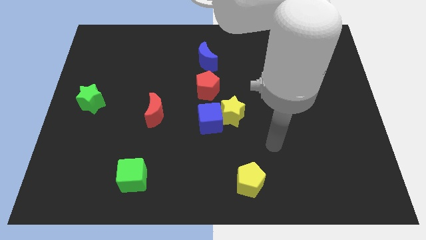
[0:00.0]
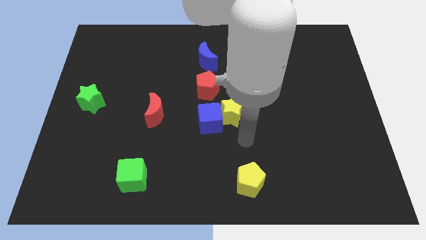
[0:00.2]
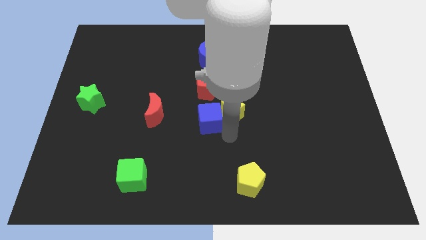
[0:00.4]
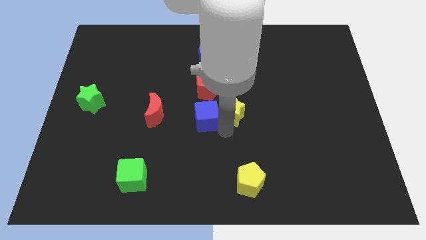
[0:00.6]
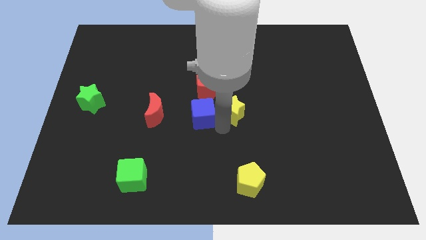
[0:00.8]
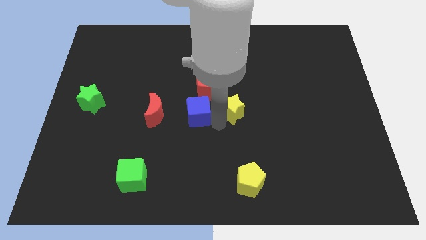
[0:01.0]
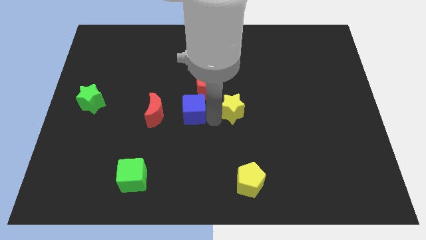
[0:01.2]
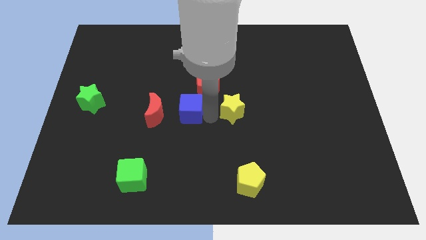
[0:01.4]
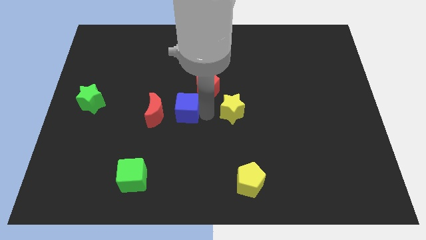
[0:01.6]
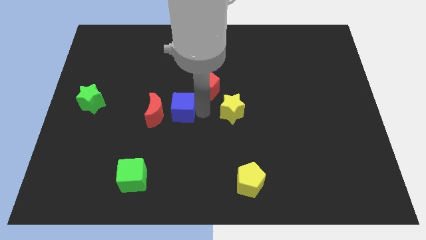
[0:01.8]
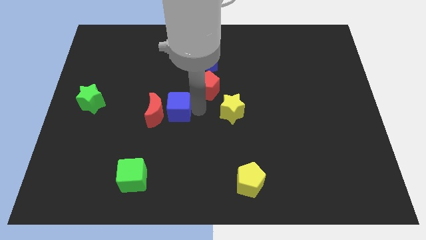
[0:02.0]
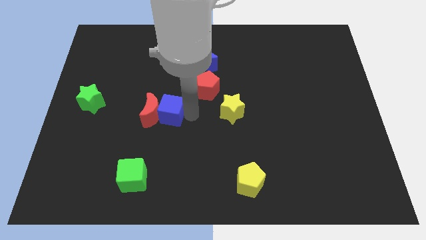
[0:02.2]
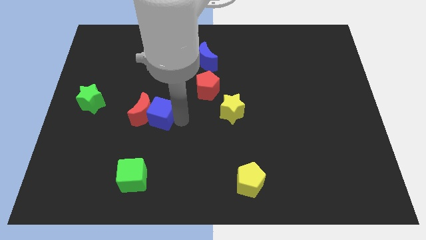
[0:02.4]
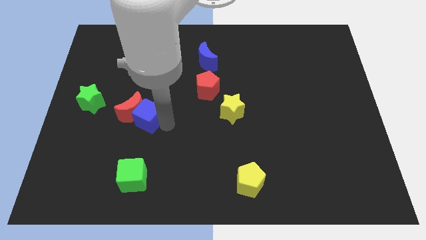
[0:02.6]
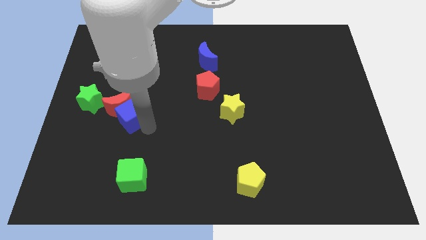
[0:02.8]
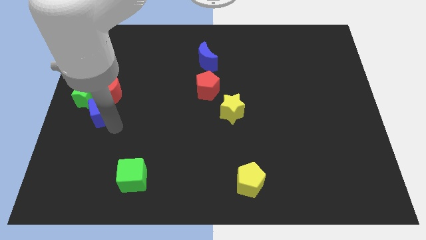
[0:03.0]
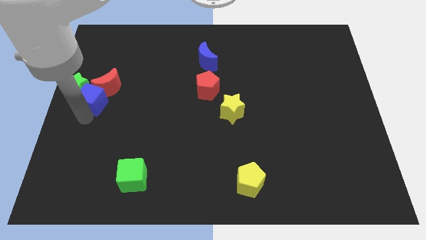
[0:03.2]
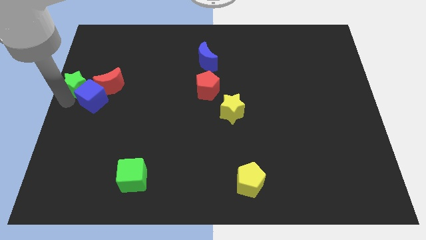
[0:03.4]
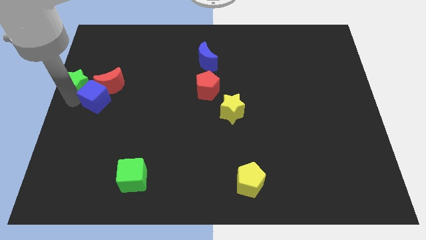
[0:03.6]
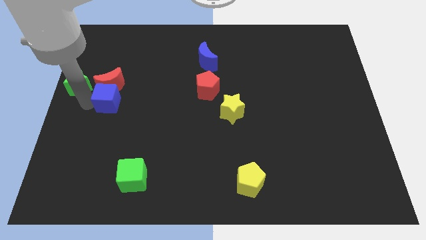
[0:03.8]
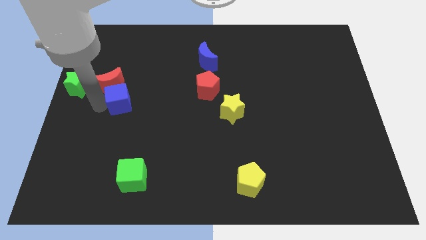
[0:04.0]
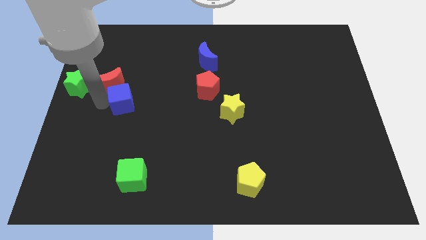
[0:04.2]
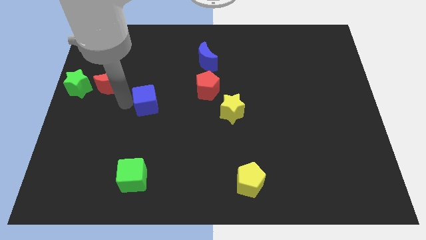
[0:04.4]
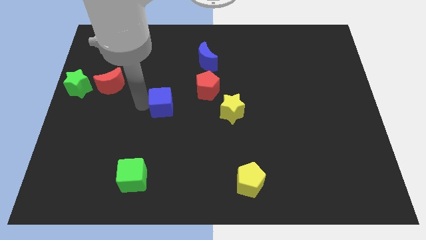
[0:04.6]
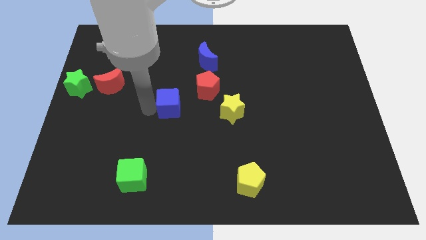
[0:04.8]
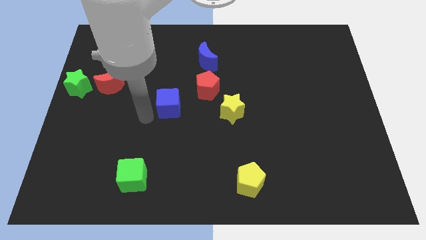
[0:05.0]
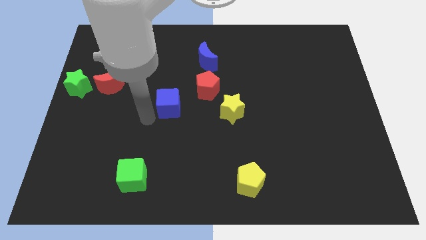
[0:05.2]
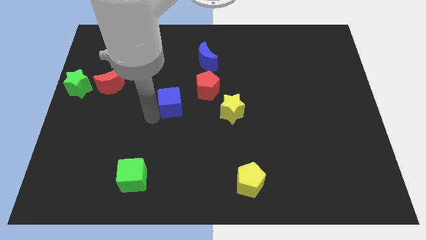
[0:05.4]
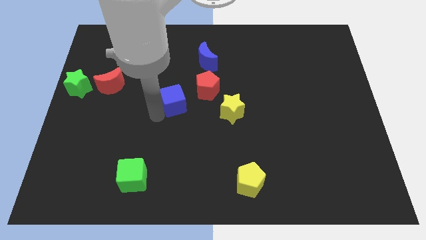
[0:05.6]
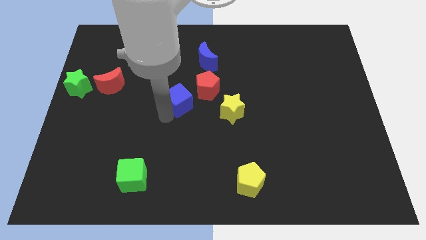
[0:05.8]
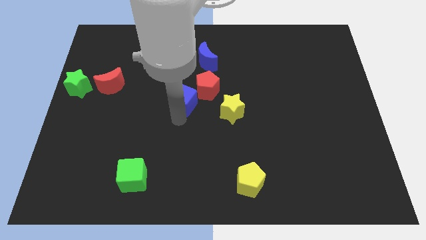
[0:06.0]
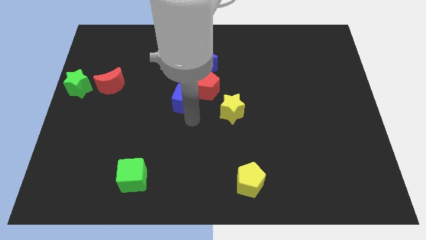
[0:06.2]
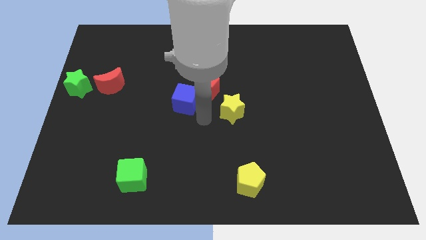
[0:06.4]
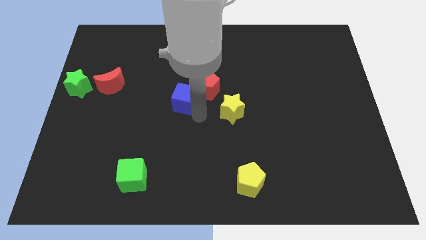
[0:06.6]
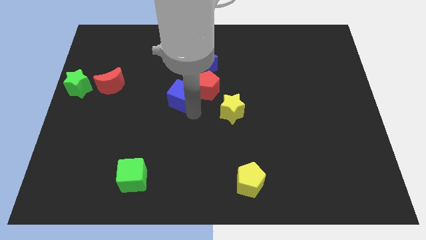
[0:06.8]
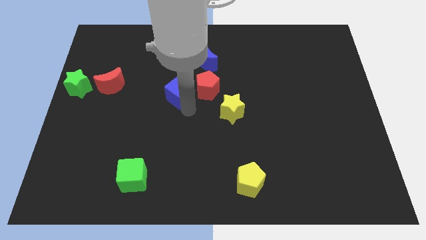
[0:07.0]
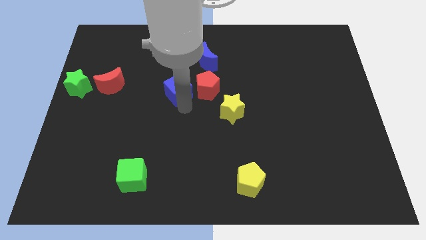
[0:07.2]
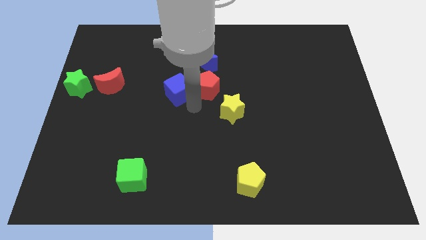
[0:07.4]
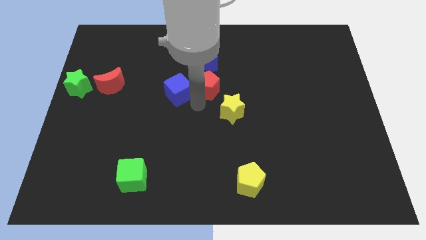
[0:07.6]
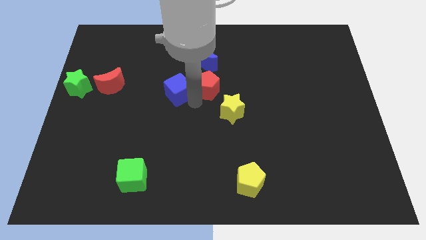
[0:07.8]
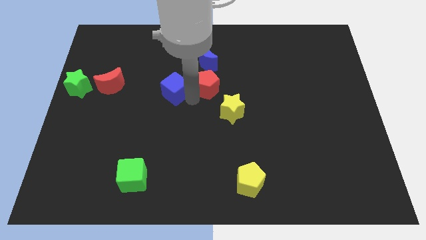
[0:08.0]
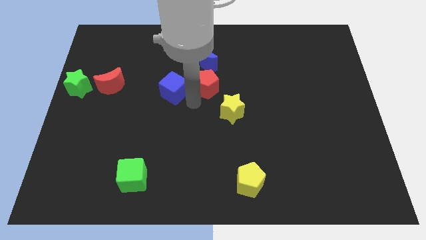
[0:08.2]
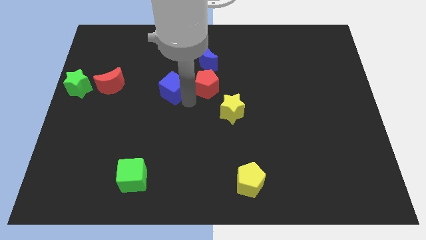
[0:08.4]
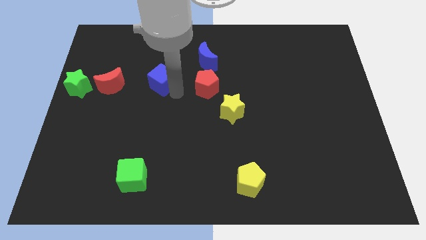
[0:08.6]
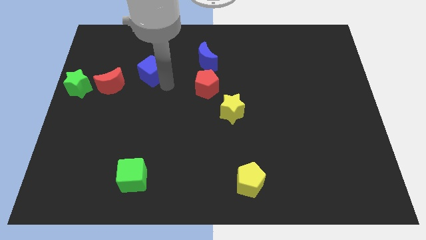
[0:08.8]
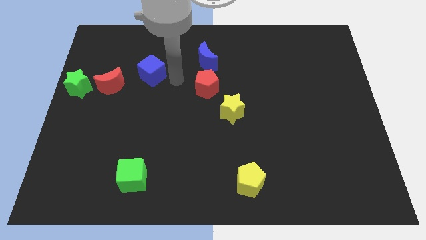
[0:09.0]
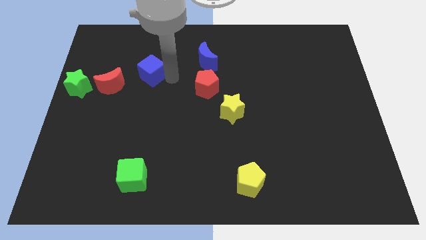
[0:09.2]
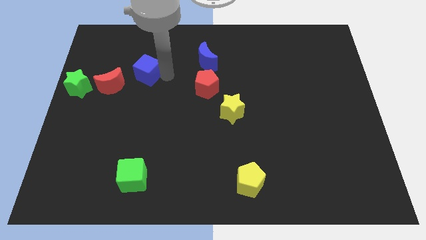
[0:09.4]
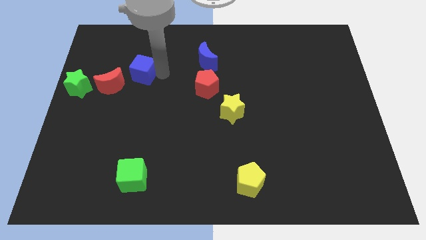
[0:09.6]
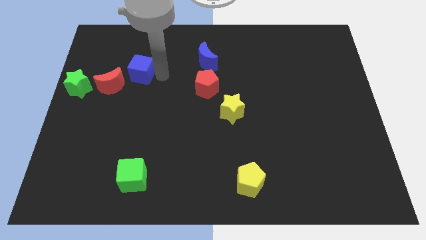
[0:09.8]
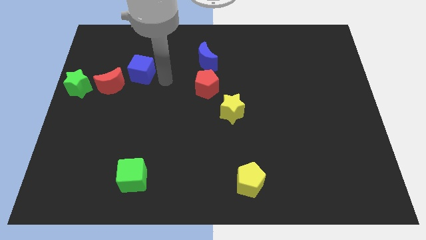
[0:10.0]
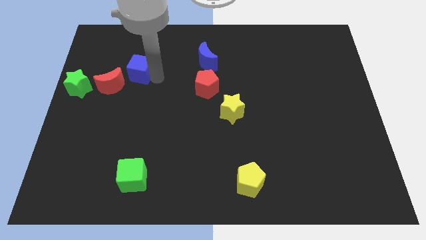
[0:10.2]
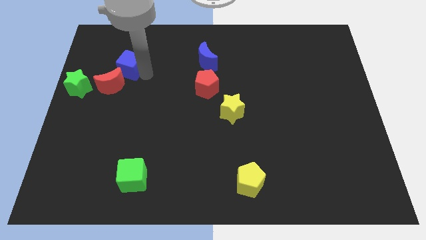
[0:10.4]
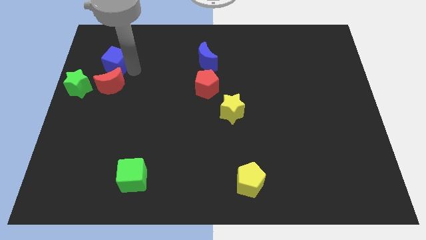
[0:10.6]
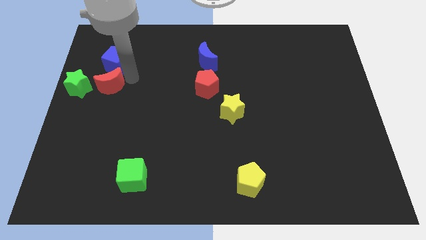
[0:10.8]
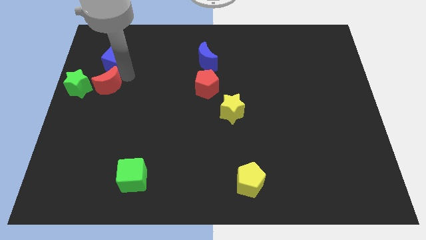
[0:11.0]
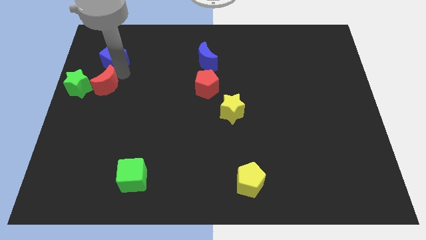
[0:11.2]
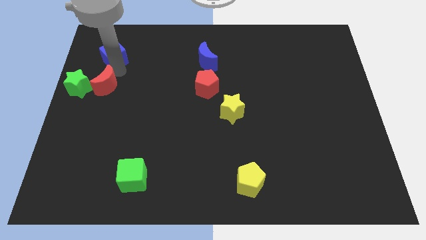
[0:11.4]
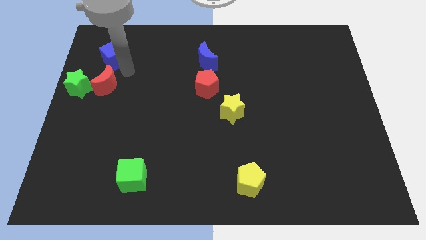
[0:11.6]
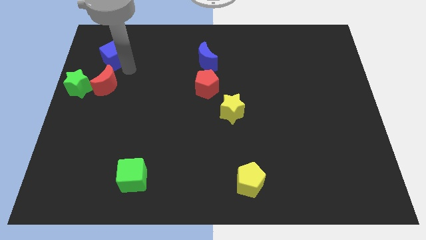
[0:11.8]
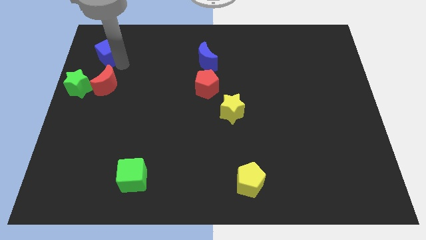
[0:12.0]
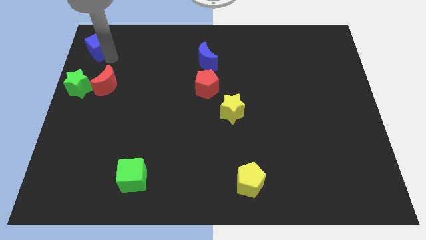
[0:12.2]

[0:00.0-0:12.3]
move the blue cube to the top left of the board
